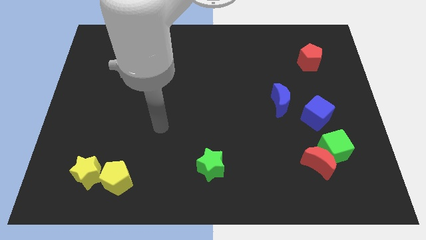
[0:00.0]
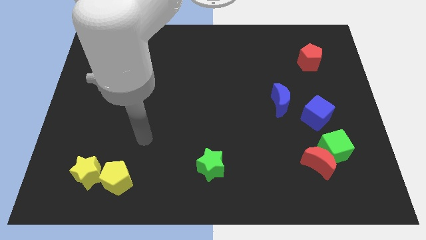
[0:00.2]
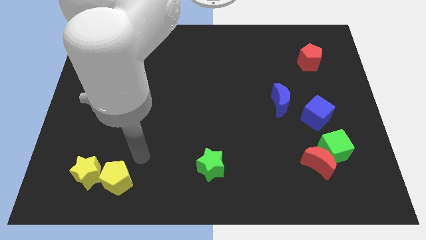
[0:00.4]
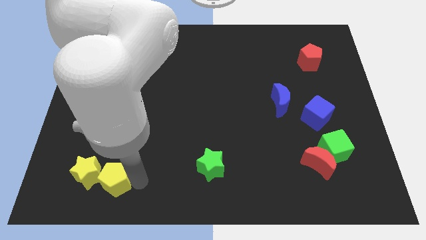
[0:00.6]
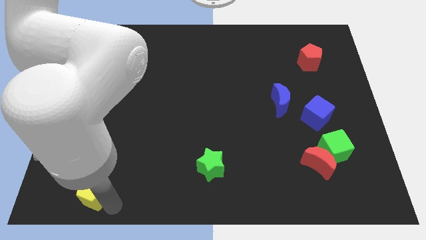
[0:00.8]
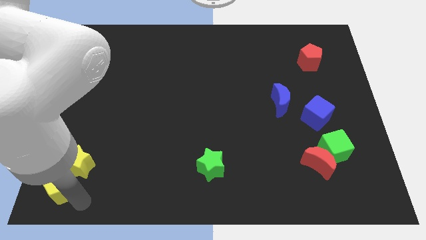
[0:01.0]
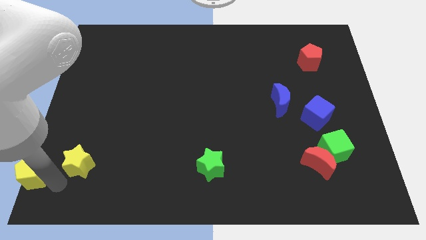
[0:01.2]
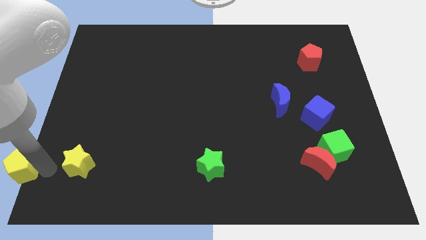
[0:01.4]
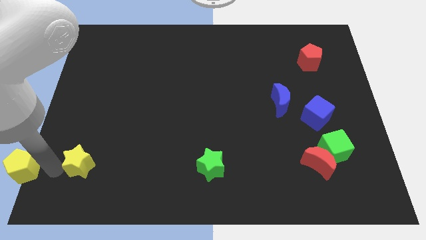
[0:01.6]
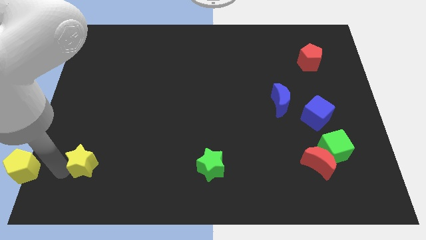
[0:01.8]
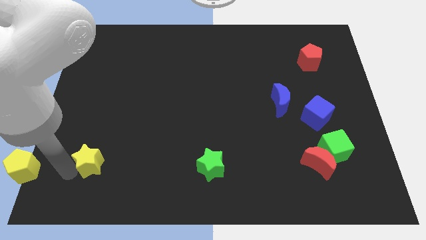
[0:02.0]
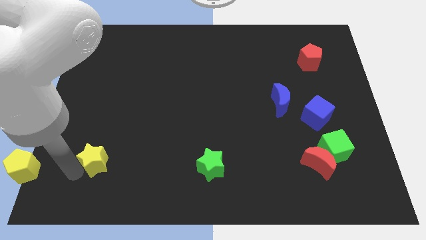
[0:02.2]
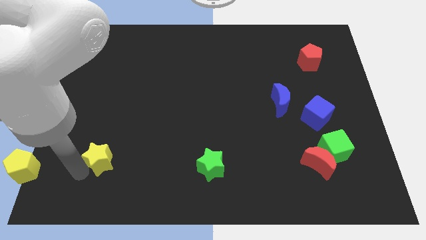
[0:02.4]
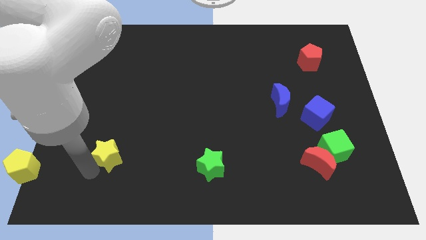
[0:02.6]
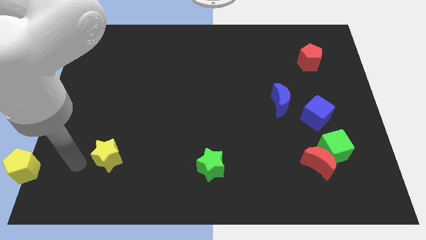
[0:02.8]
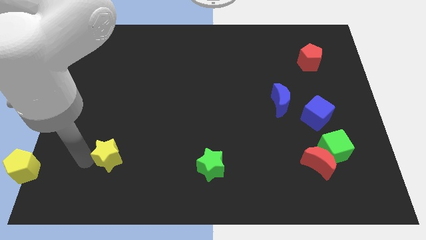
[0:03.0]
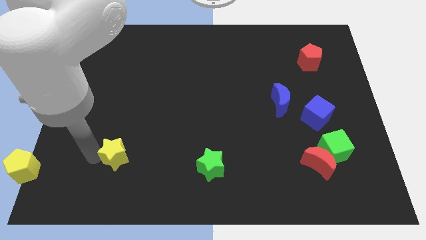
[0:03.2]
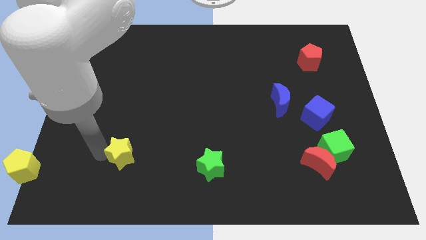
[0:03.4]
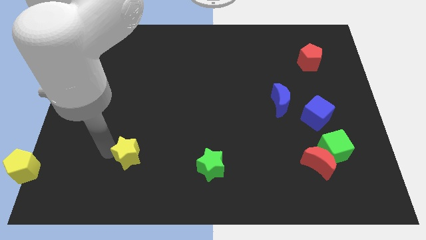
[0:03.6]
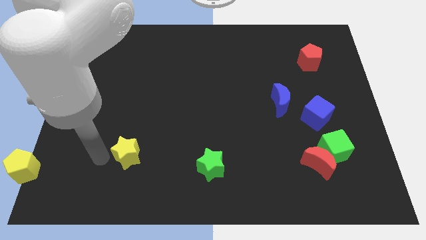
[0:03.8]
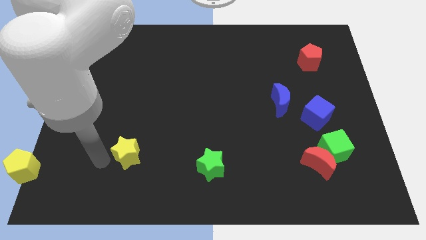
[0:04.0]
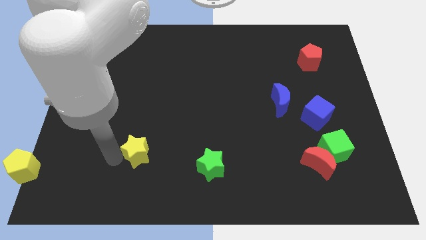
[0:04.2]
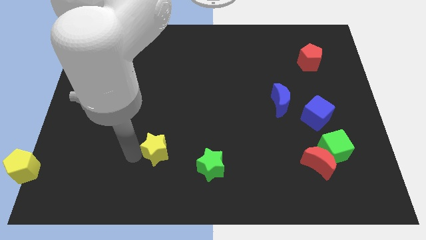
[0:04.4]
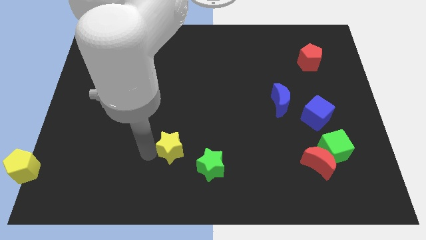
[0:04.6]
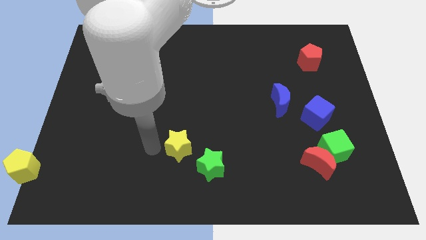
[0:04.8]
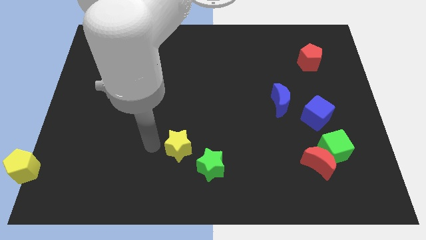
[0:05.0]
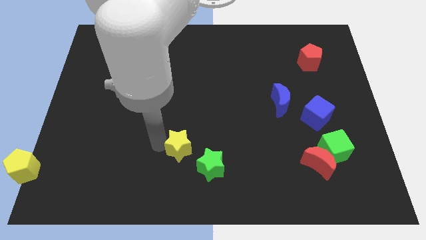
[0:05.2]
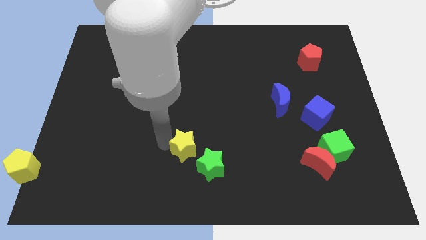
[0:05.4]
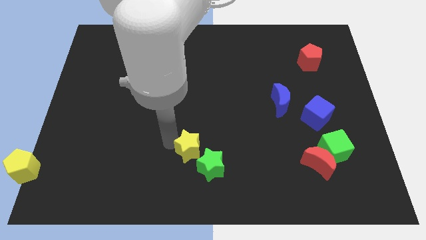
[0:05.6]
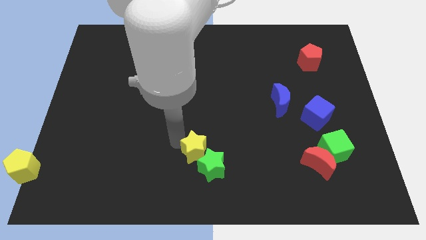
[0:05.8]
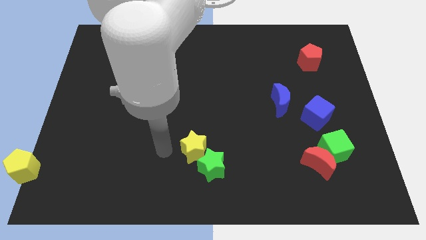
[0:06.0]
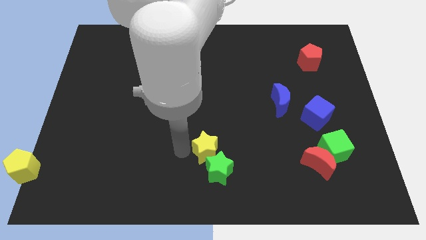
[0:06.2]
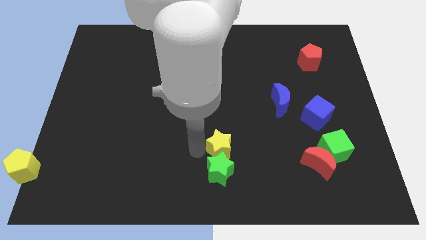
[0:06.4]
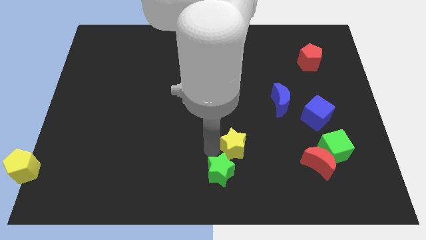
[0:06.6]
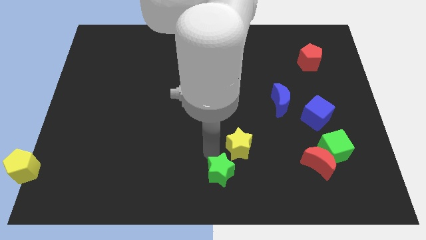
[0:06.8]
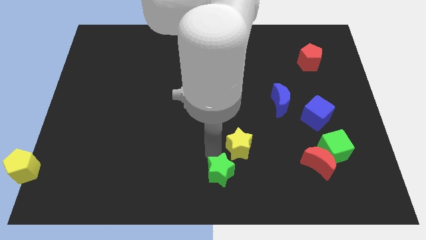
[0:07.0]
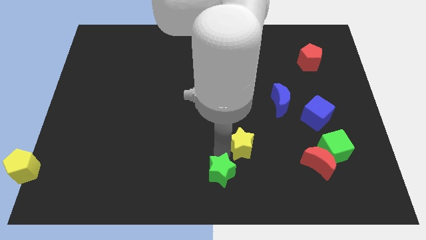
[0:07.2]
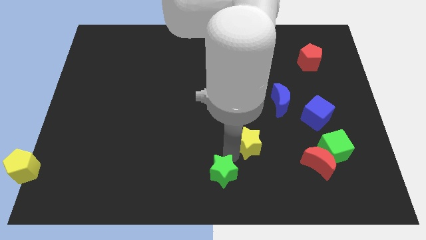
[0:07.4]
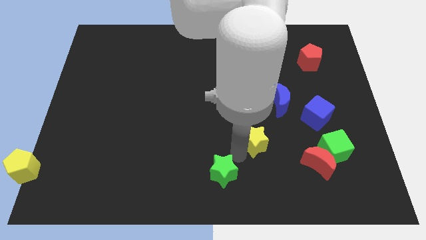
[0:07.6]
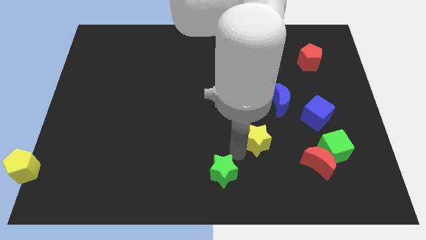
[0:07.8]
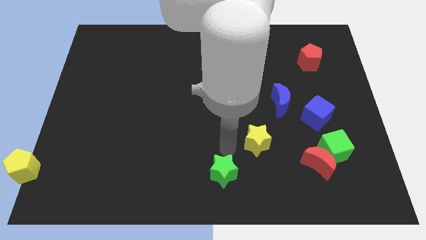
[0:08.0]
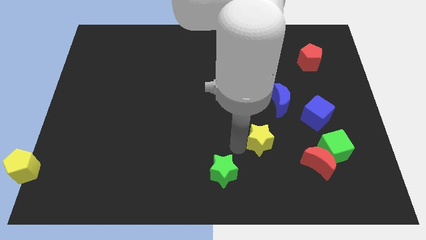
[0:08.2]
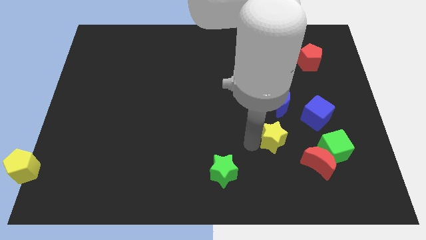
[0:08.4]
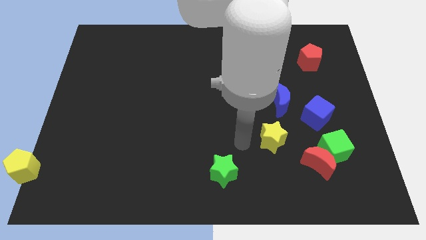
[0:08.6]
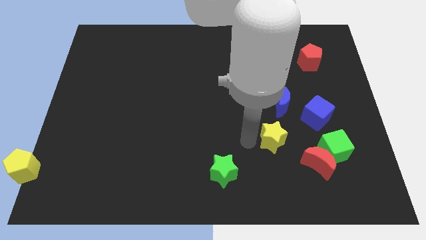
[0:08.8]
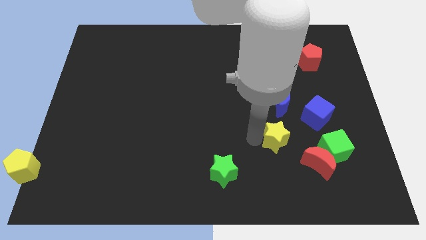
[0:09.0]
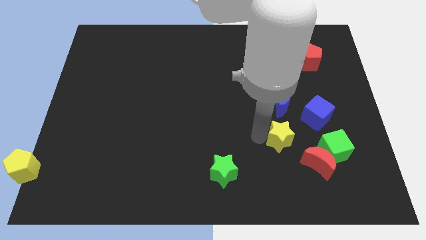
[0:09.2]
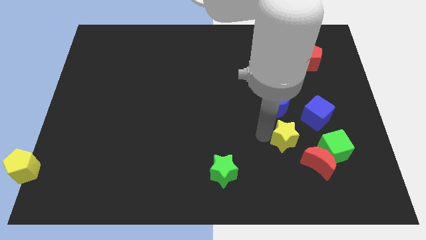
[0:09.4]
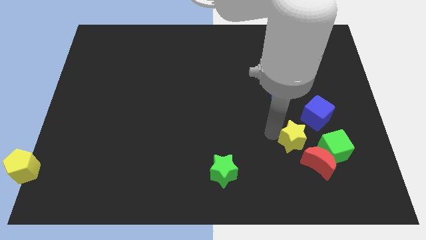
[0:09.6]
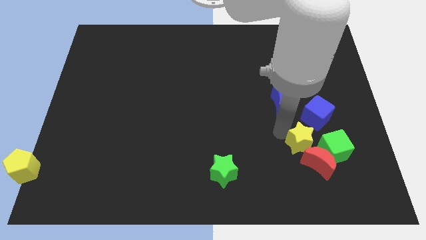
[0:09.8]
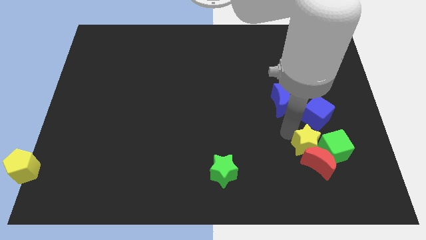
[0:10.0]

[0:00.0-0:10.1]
move the yellow star next to the green cube

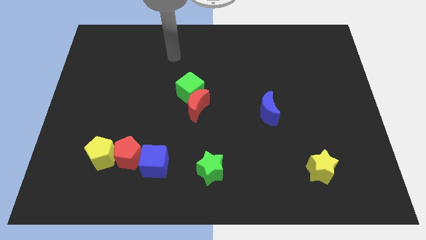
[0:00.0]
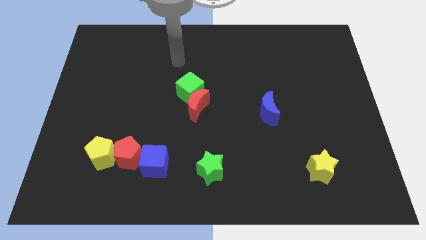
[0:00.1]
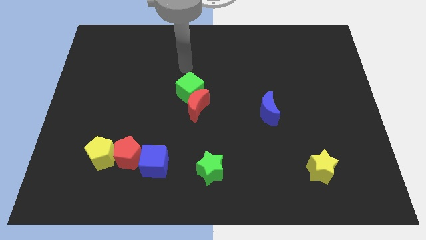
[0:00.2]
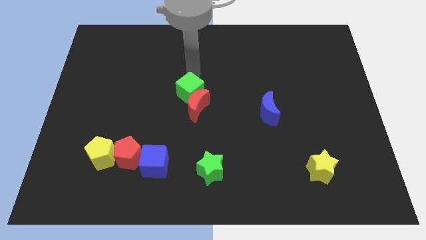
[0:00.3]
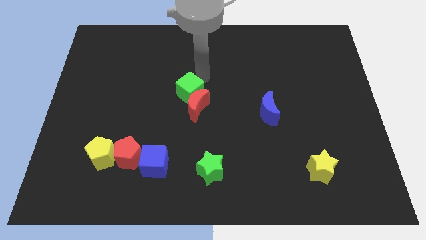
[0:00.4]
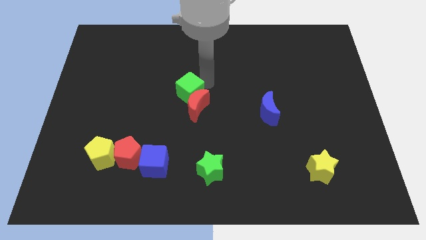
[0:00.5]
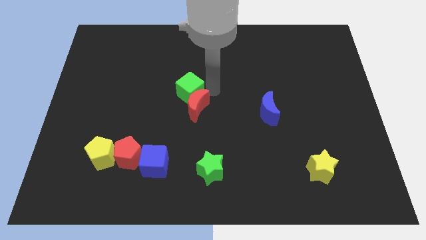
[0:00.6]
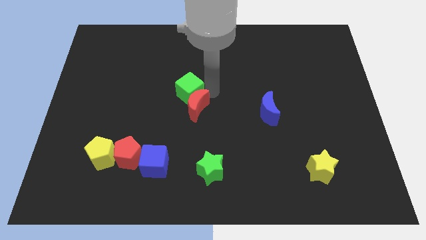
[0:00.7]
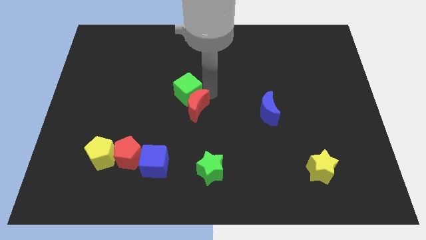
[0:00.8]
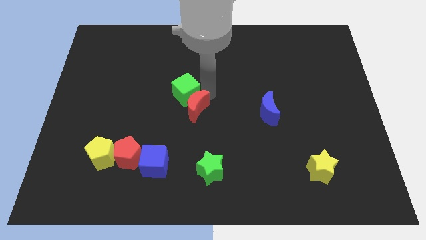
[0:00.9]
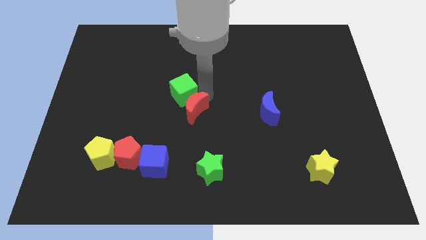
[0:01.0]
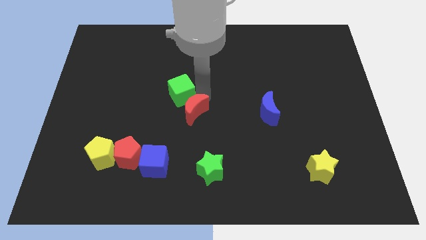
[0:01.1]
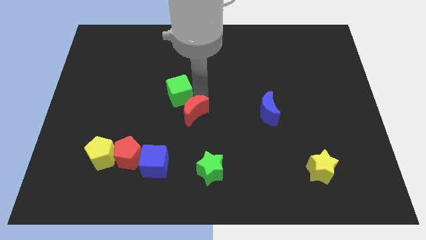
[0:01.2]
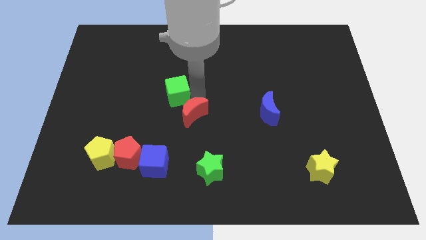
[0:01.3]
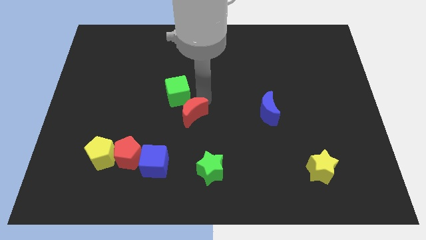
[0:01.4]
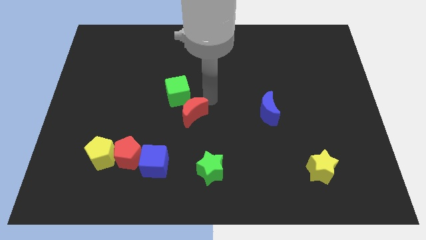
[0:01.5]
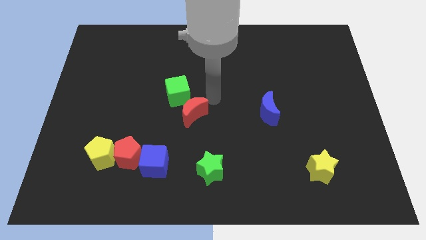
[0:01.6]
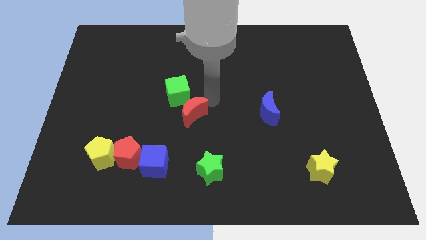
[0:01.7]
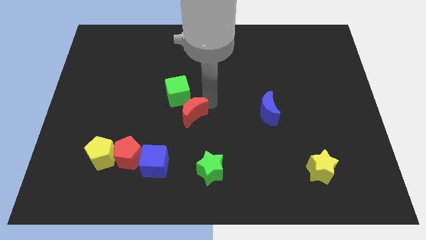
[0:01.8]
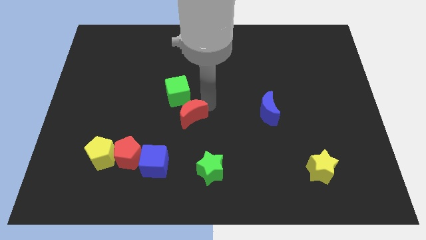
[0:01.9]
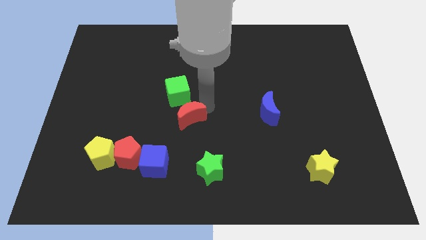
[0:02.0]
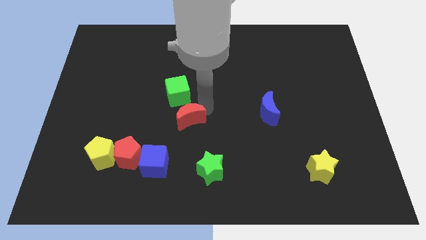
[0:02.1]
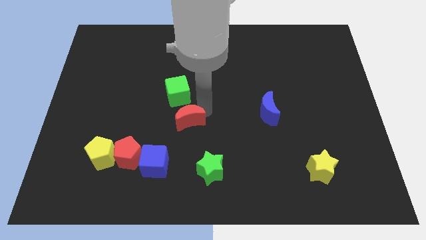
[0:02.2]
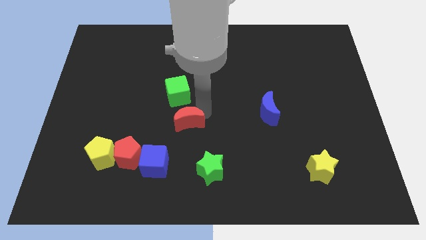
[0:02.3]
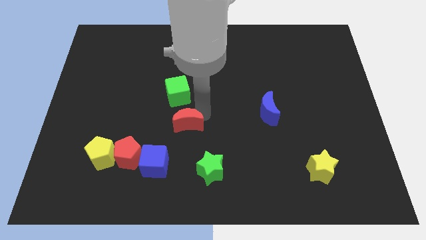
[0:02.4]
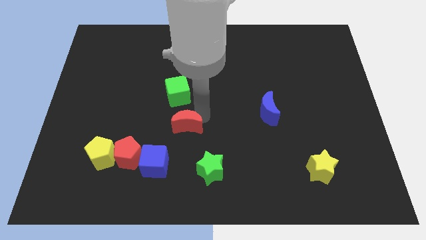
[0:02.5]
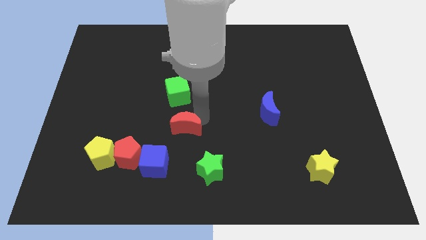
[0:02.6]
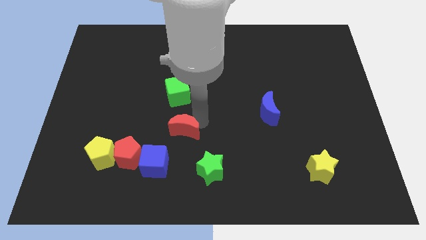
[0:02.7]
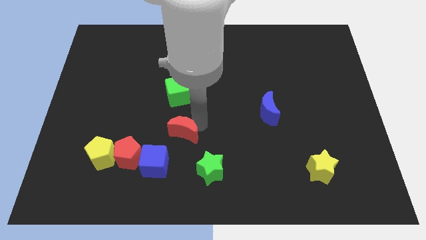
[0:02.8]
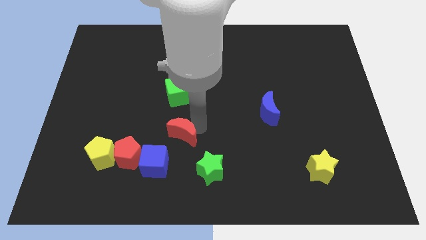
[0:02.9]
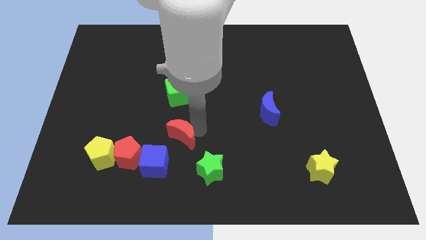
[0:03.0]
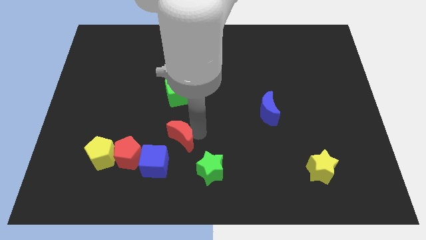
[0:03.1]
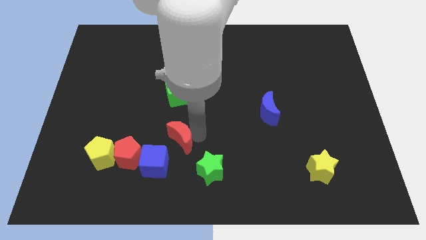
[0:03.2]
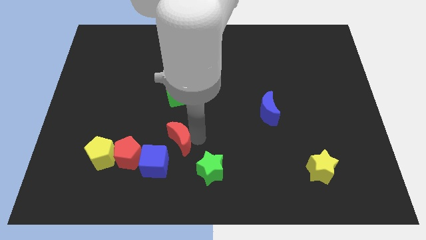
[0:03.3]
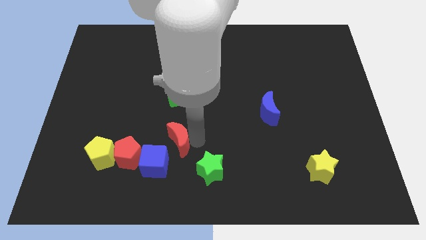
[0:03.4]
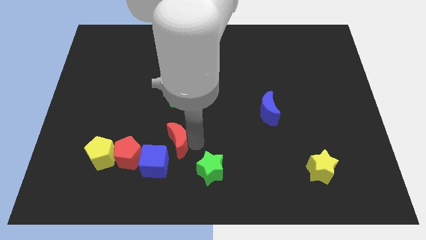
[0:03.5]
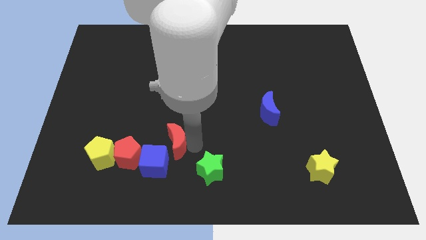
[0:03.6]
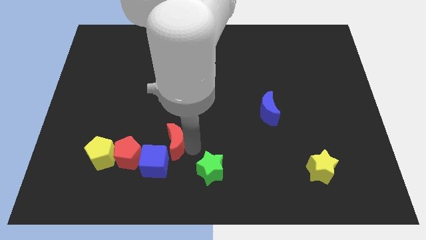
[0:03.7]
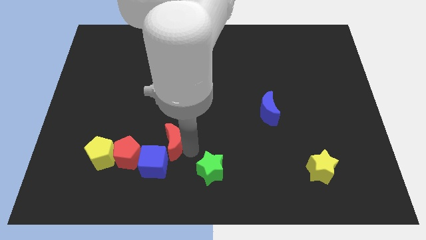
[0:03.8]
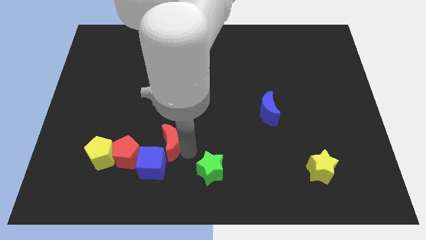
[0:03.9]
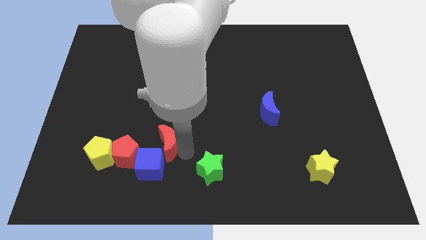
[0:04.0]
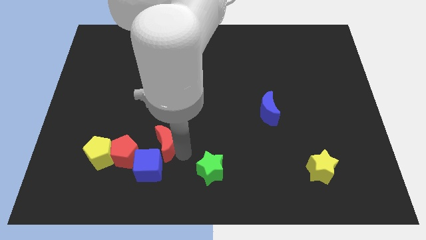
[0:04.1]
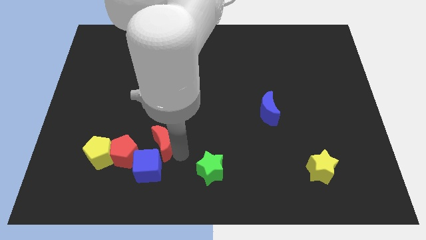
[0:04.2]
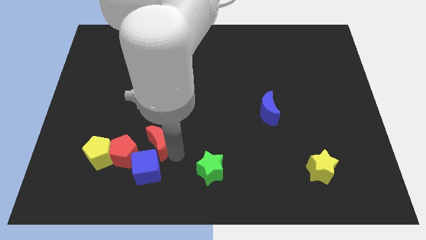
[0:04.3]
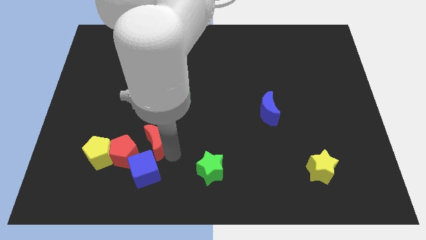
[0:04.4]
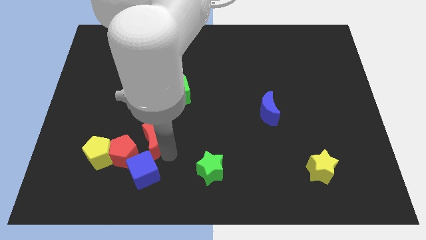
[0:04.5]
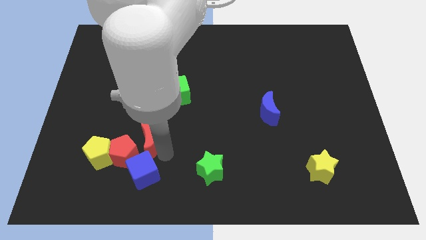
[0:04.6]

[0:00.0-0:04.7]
move the red moon to the red pentagon
